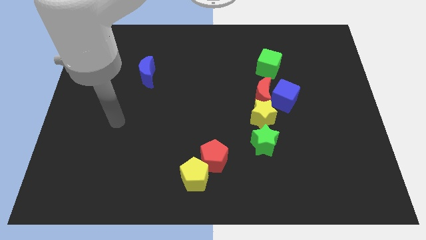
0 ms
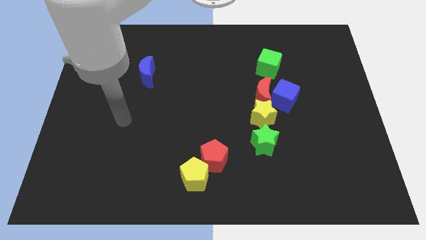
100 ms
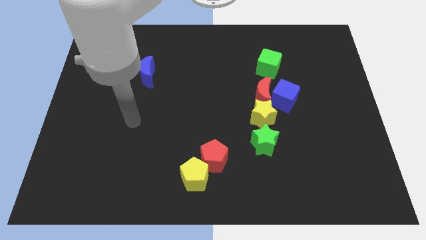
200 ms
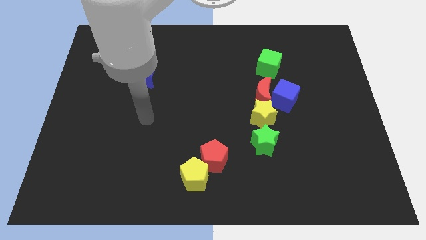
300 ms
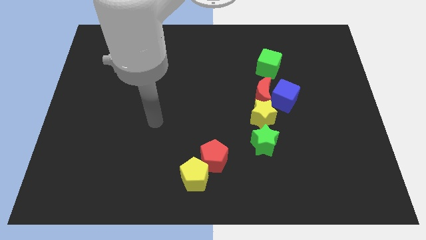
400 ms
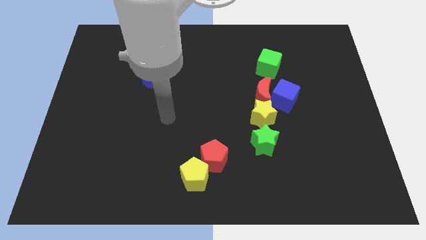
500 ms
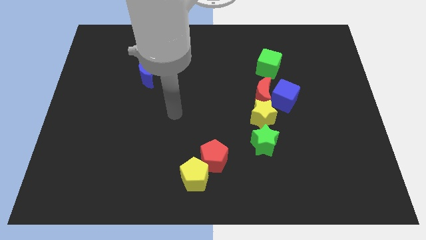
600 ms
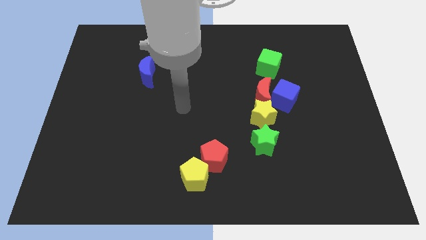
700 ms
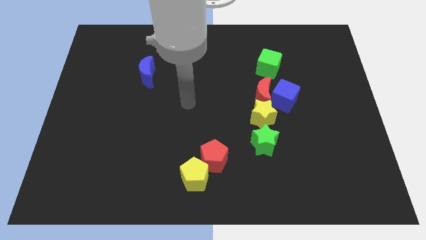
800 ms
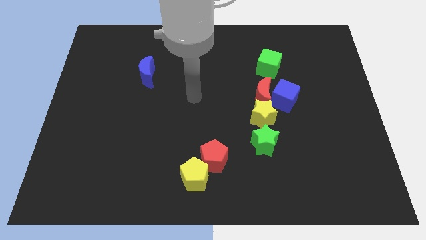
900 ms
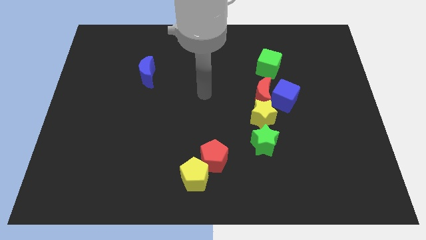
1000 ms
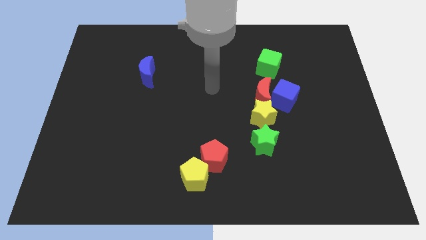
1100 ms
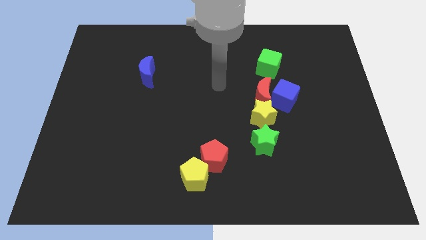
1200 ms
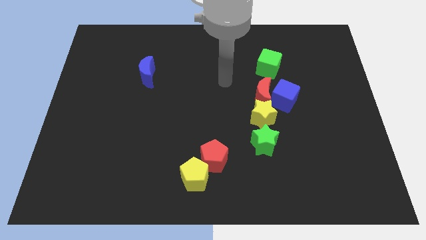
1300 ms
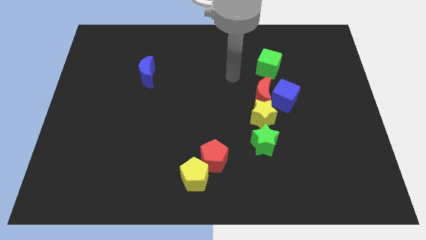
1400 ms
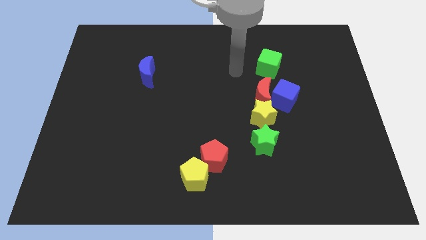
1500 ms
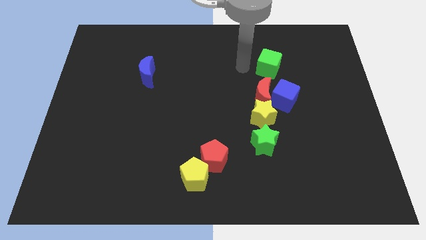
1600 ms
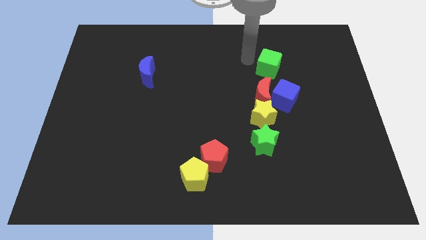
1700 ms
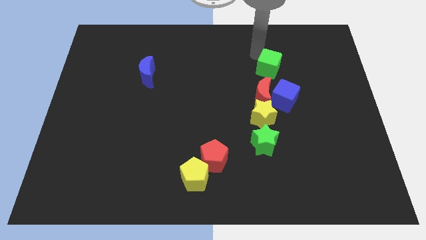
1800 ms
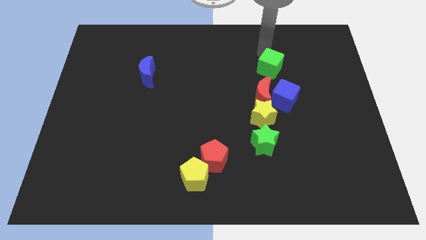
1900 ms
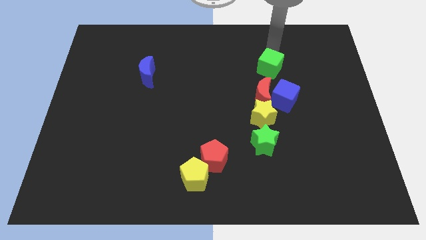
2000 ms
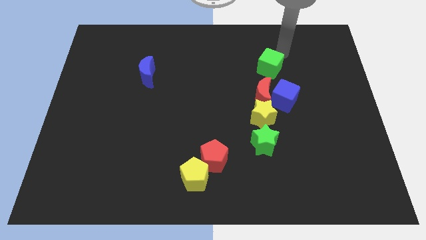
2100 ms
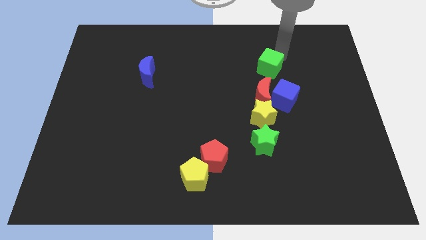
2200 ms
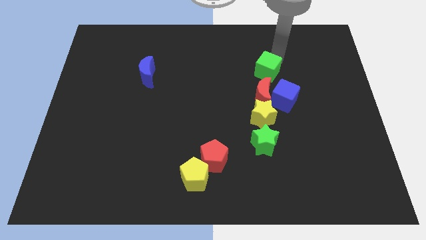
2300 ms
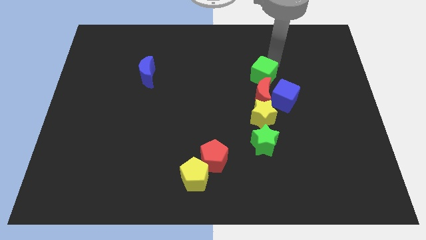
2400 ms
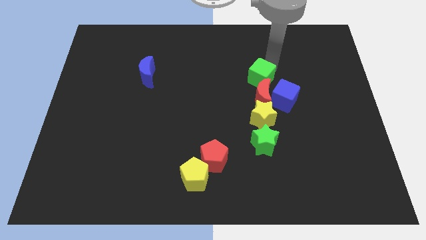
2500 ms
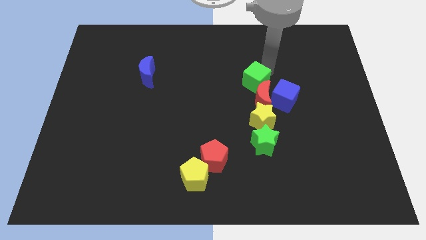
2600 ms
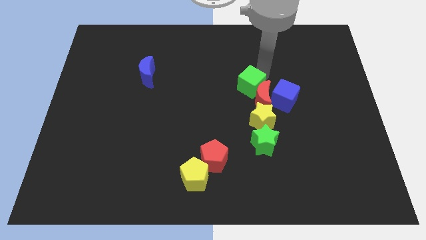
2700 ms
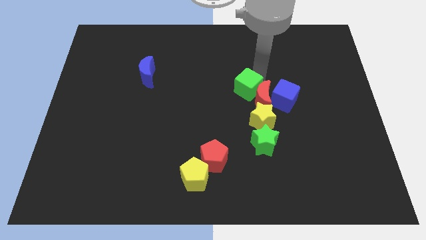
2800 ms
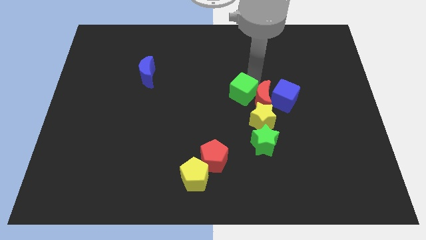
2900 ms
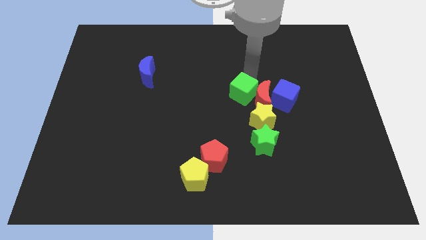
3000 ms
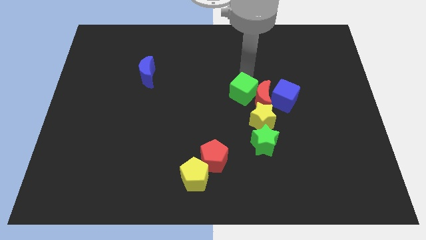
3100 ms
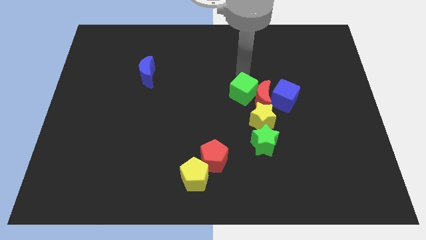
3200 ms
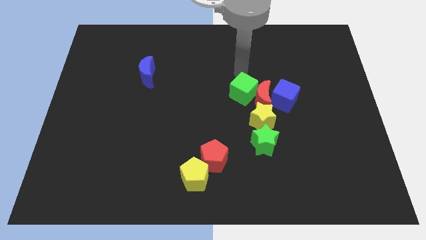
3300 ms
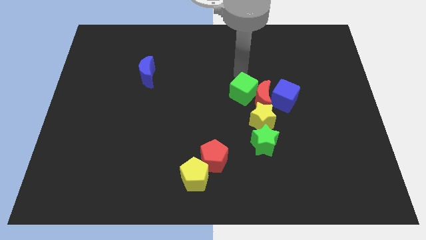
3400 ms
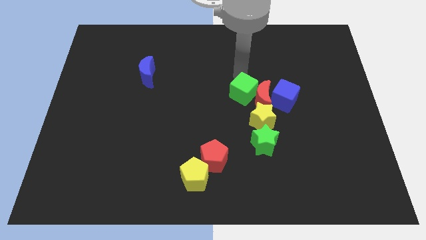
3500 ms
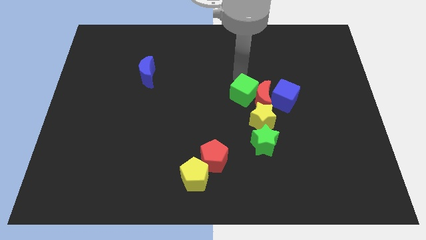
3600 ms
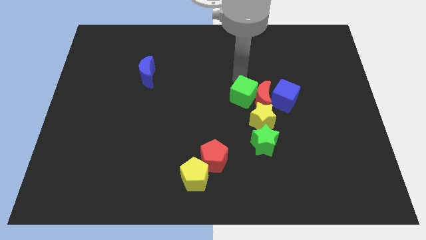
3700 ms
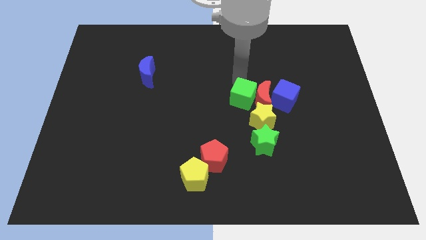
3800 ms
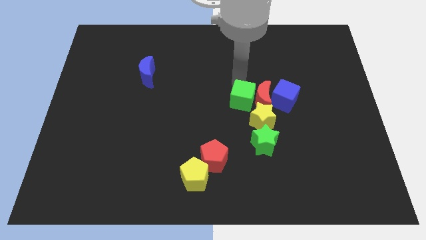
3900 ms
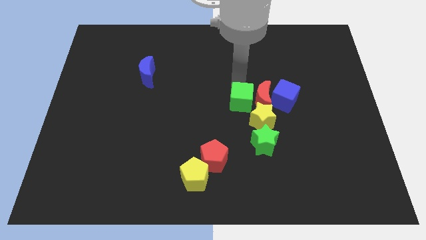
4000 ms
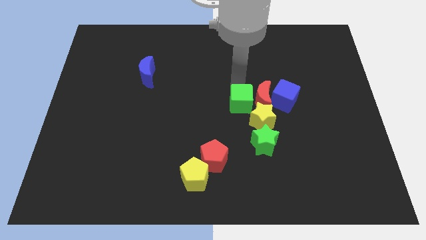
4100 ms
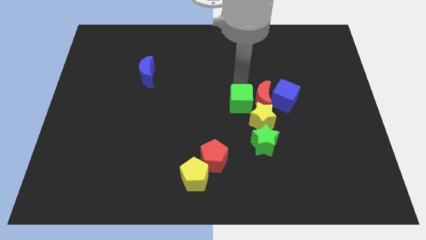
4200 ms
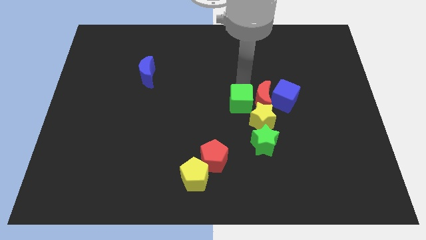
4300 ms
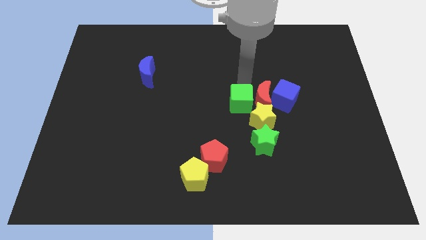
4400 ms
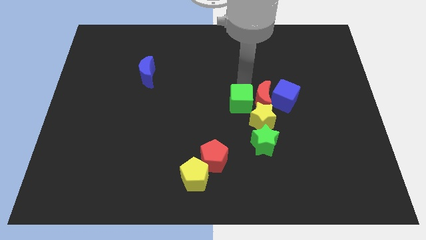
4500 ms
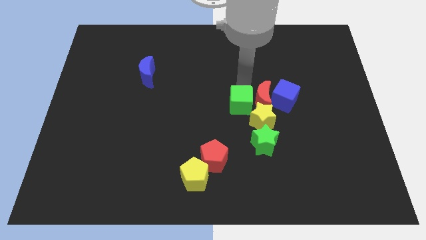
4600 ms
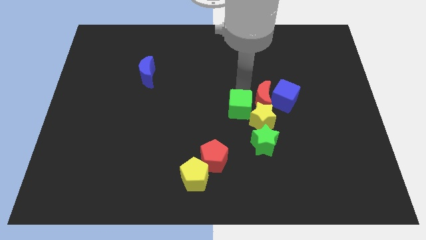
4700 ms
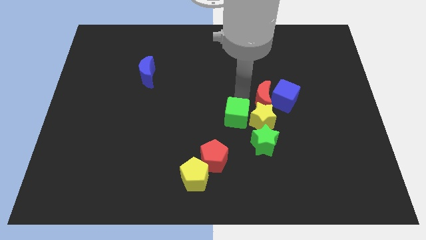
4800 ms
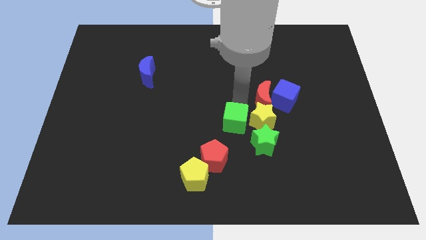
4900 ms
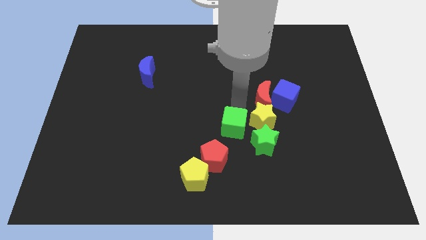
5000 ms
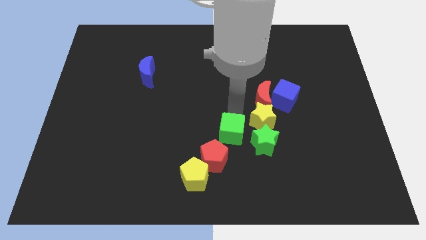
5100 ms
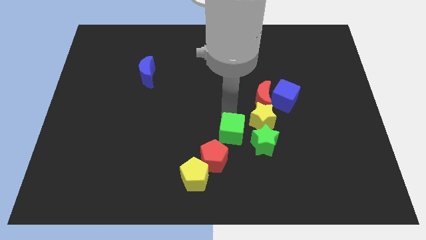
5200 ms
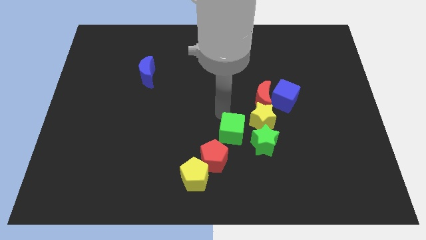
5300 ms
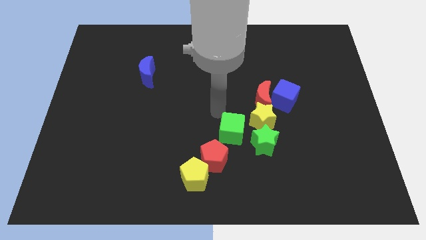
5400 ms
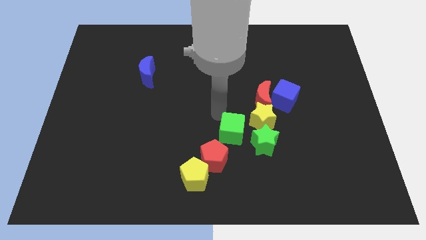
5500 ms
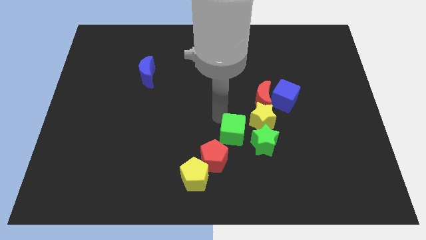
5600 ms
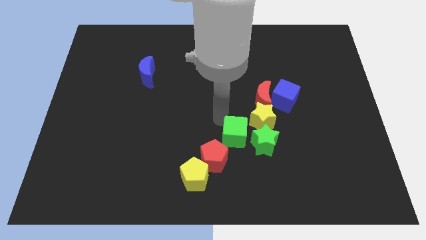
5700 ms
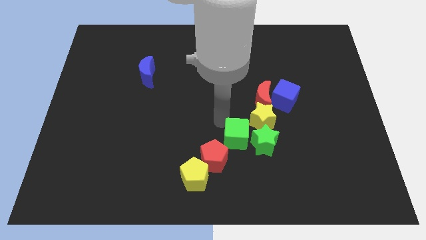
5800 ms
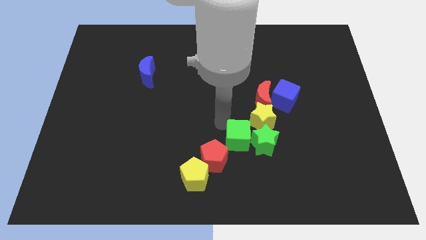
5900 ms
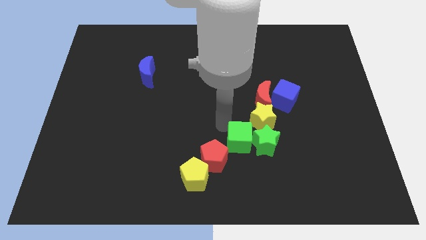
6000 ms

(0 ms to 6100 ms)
slide the green cube to the right of the red pentagon

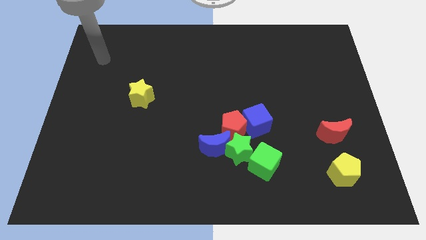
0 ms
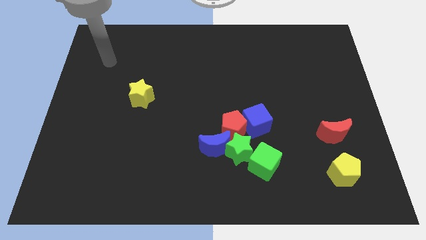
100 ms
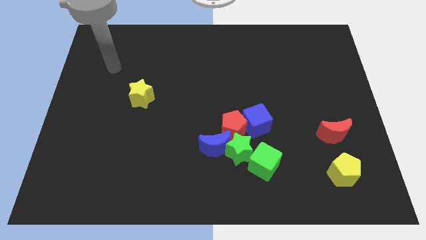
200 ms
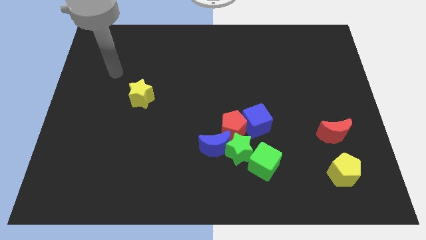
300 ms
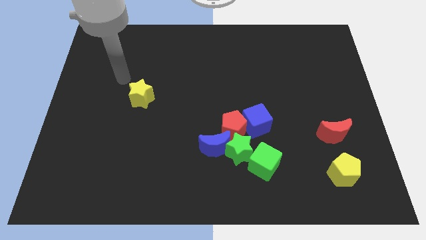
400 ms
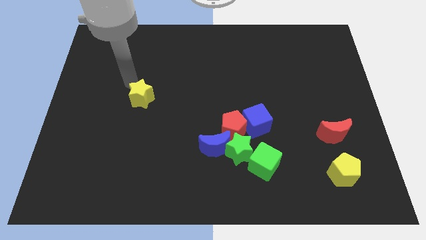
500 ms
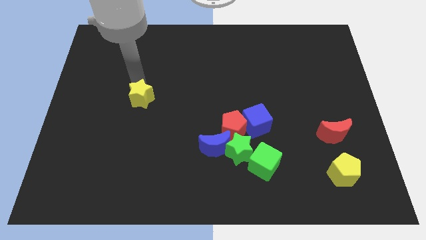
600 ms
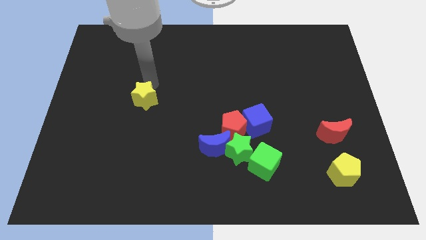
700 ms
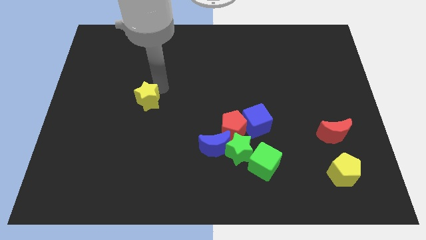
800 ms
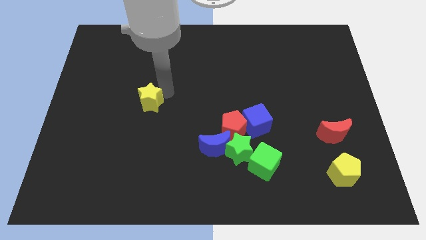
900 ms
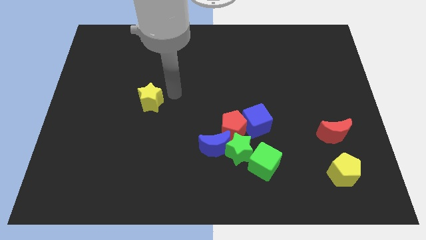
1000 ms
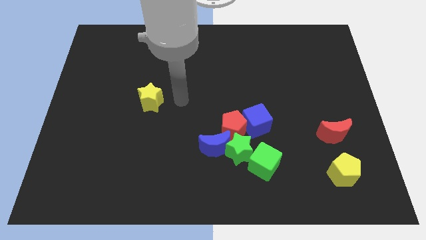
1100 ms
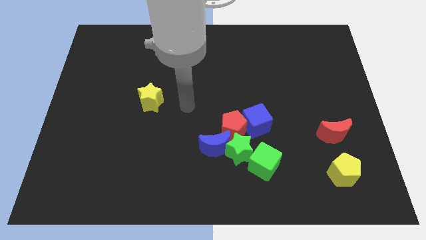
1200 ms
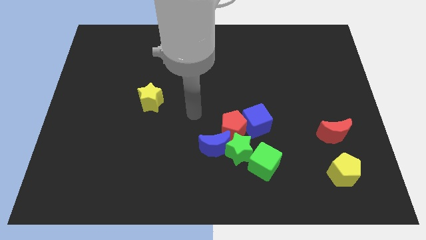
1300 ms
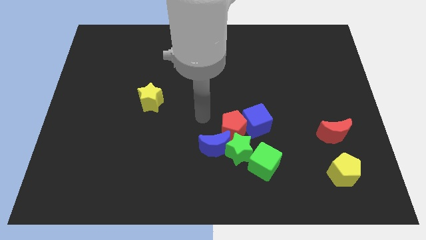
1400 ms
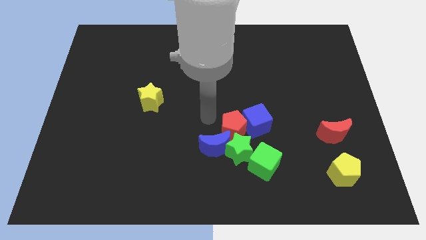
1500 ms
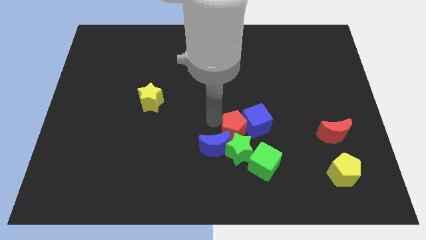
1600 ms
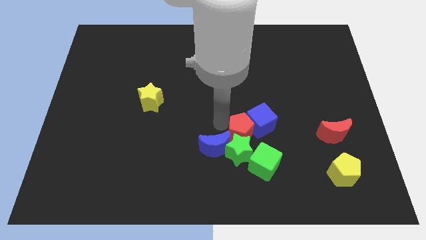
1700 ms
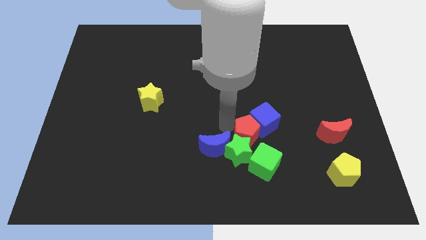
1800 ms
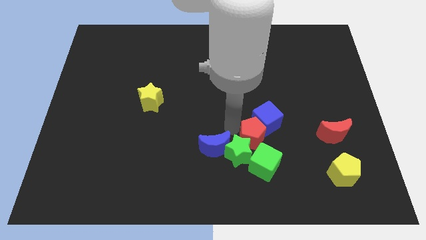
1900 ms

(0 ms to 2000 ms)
move the red pentagon to the right of the green star
